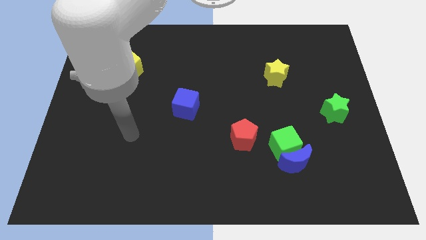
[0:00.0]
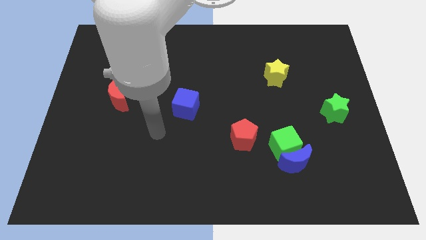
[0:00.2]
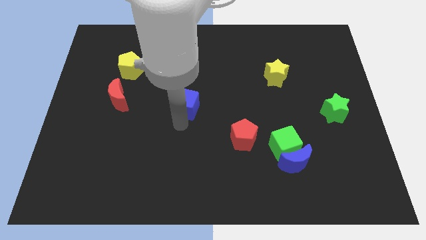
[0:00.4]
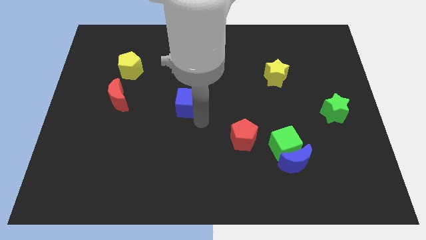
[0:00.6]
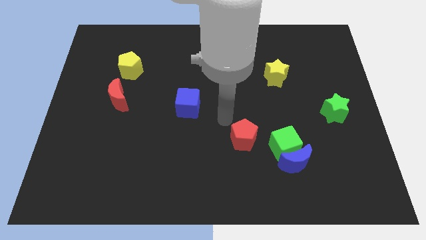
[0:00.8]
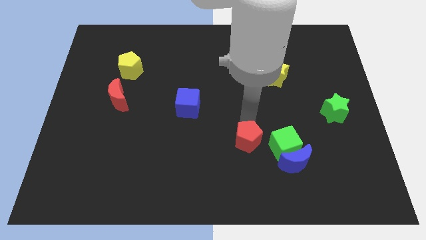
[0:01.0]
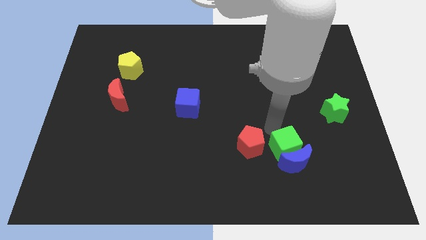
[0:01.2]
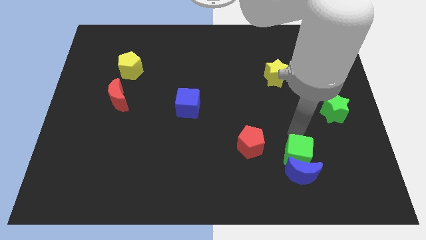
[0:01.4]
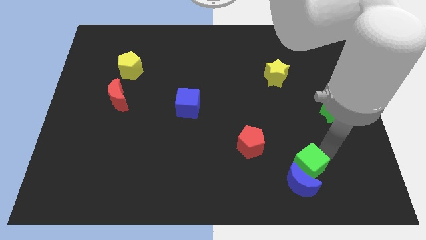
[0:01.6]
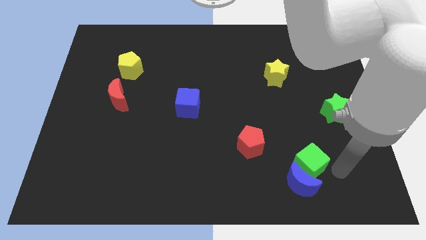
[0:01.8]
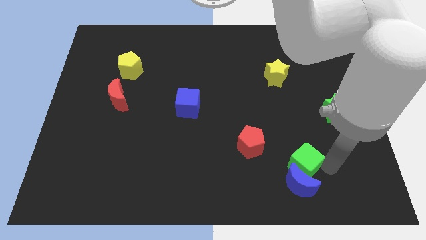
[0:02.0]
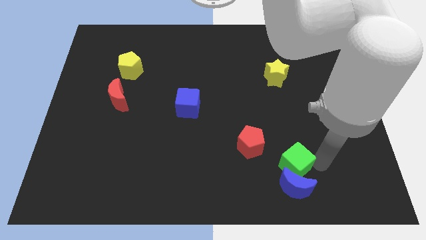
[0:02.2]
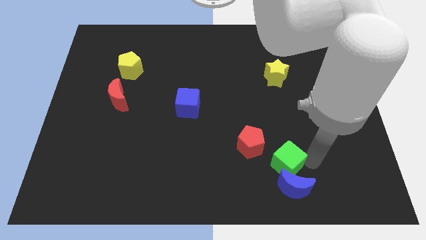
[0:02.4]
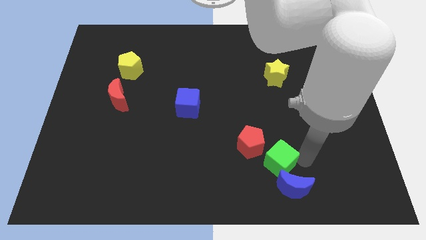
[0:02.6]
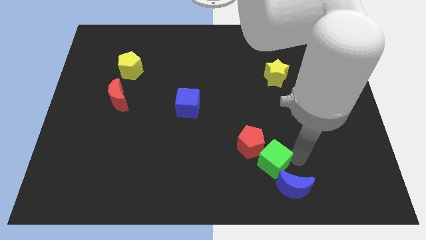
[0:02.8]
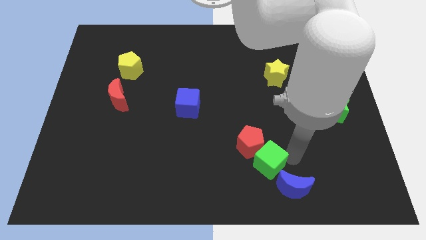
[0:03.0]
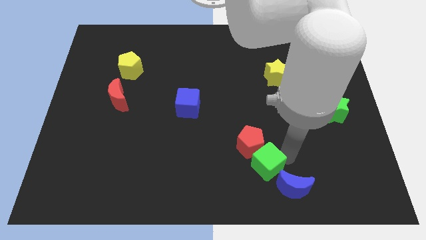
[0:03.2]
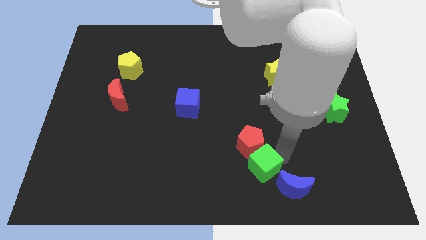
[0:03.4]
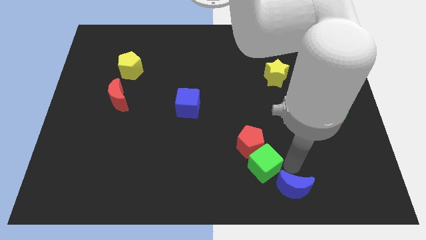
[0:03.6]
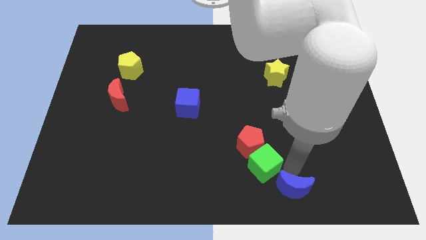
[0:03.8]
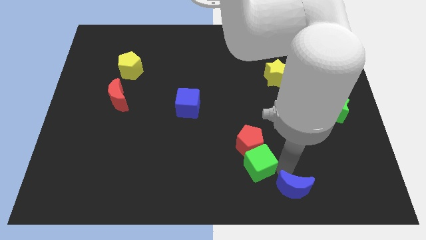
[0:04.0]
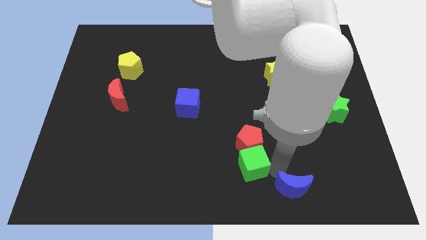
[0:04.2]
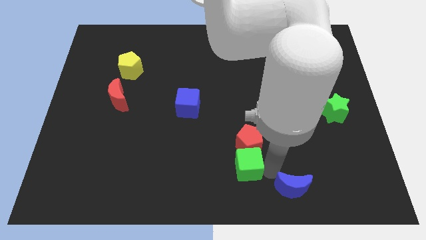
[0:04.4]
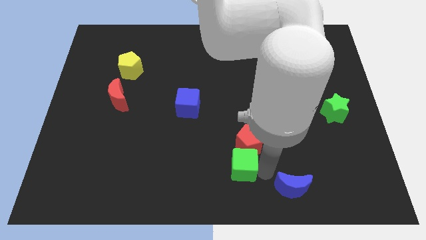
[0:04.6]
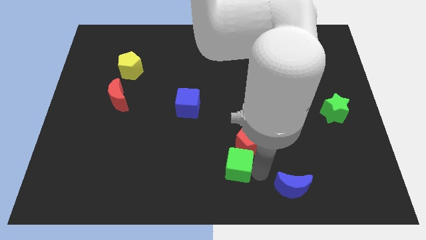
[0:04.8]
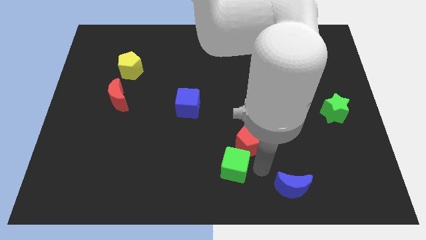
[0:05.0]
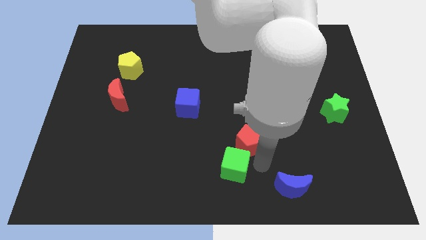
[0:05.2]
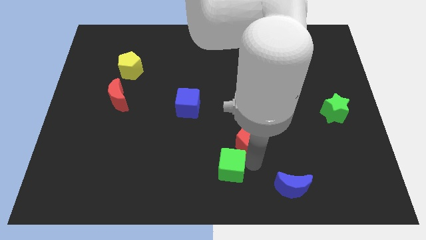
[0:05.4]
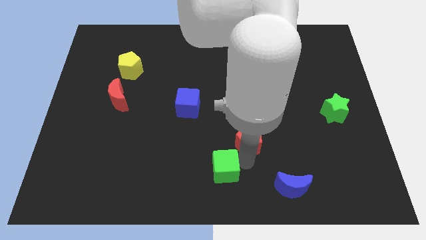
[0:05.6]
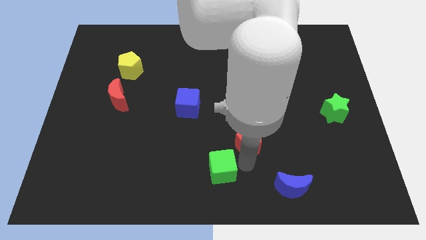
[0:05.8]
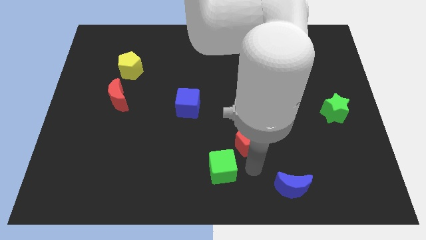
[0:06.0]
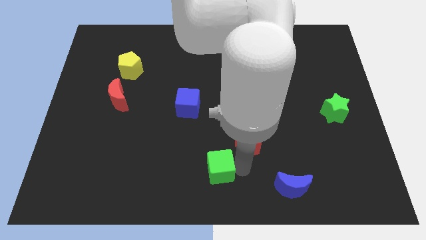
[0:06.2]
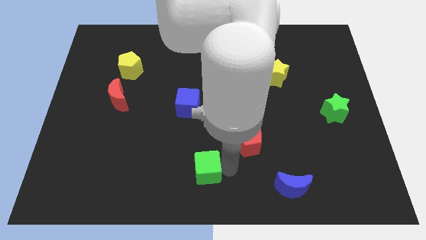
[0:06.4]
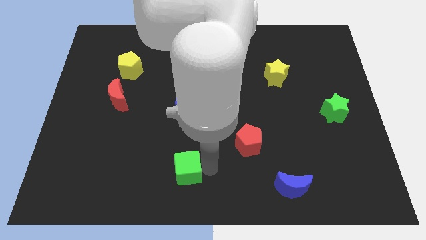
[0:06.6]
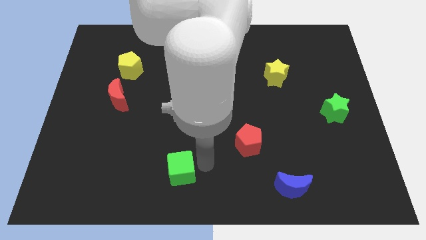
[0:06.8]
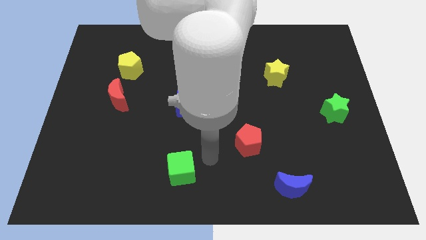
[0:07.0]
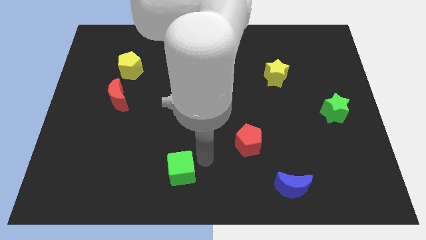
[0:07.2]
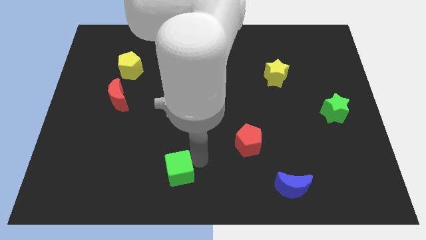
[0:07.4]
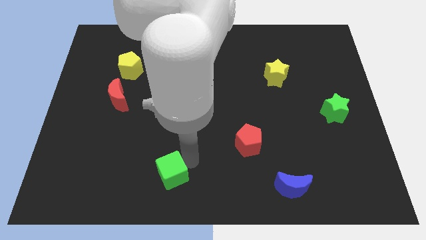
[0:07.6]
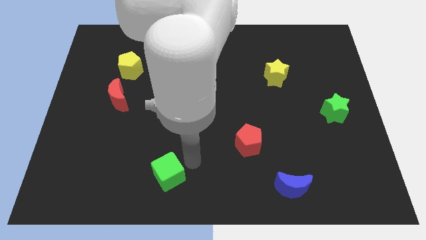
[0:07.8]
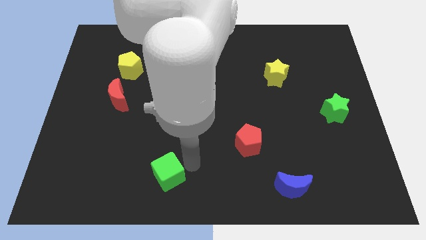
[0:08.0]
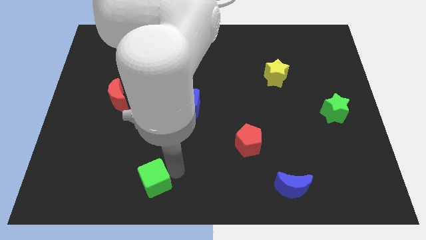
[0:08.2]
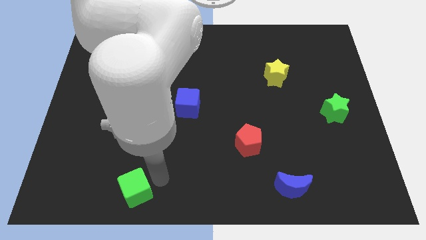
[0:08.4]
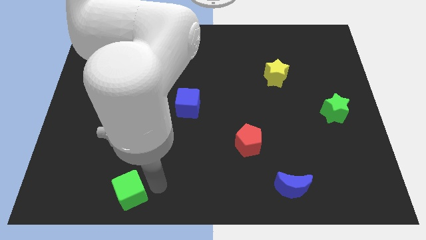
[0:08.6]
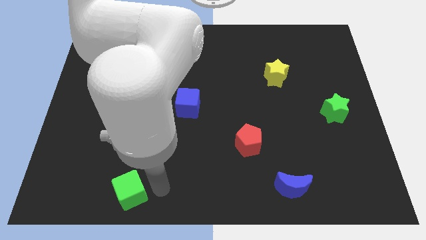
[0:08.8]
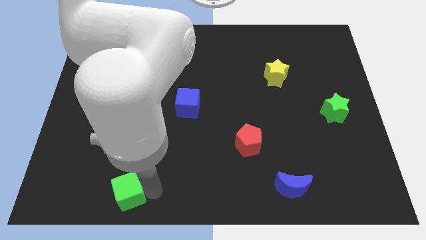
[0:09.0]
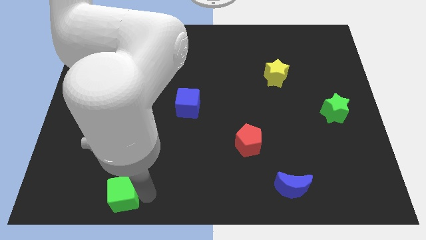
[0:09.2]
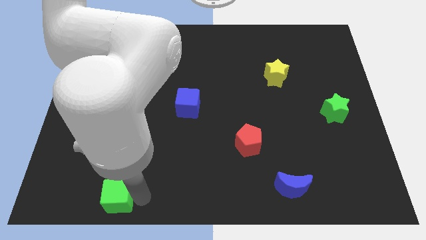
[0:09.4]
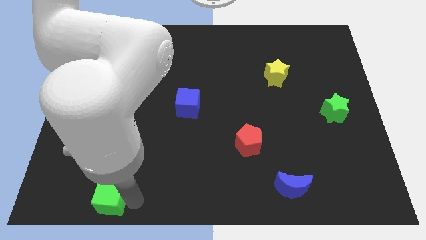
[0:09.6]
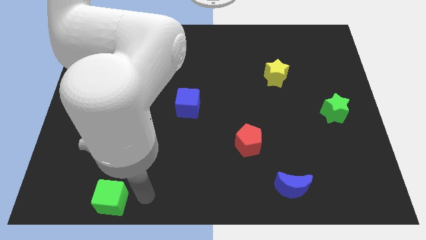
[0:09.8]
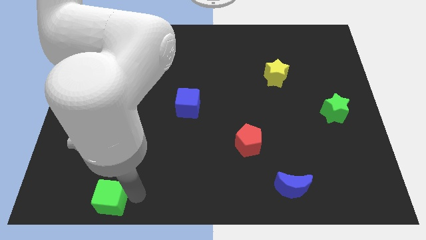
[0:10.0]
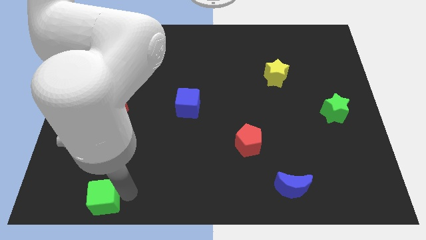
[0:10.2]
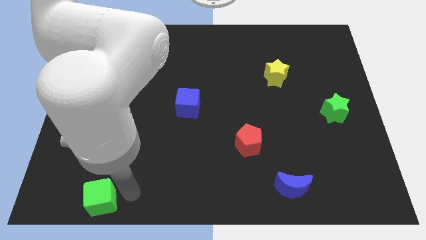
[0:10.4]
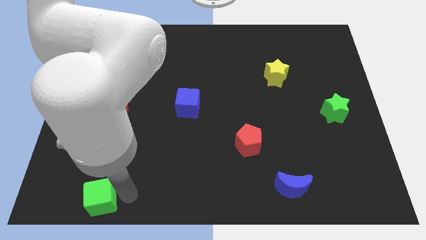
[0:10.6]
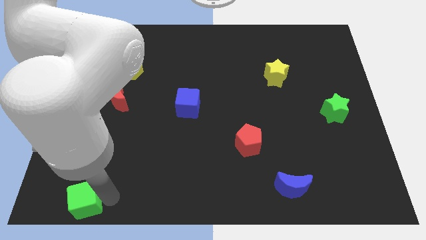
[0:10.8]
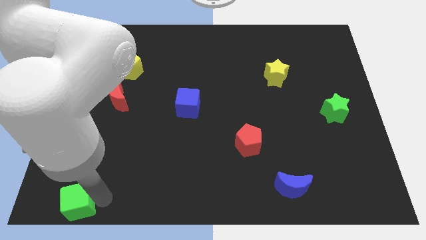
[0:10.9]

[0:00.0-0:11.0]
slide the green cube to the bottom left

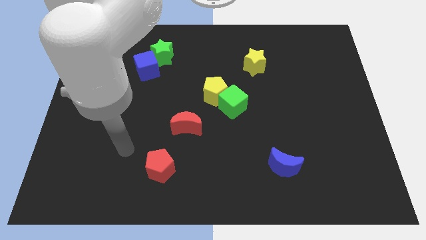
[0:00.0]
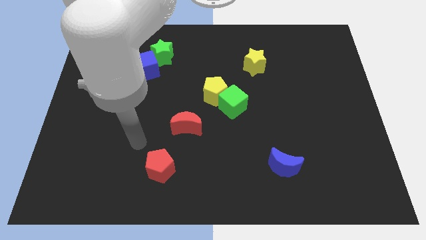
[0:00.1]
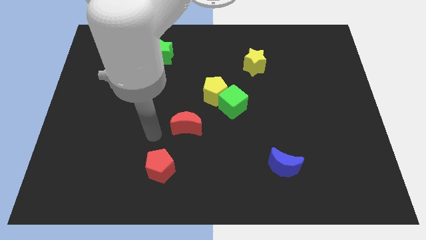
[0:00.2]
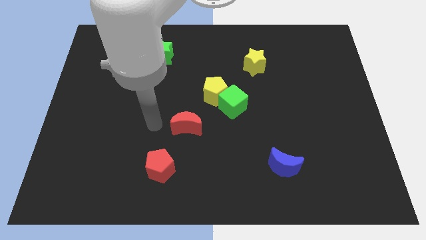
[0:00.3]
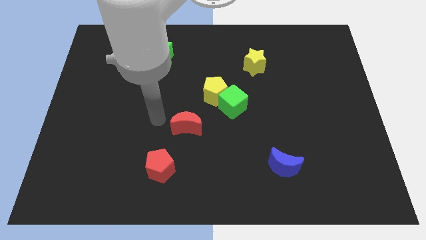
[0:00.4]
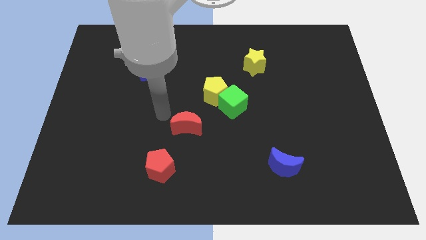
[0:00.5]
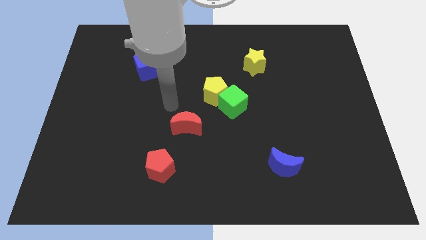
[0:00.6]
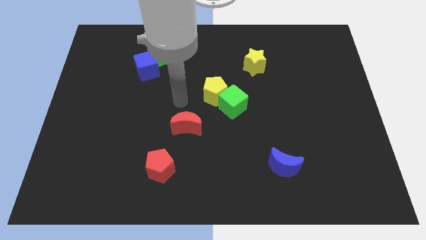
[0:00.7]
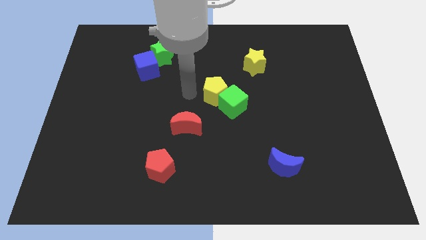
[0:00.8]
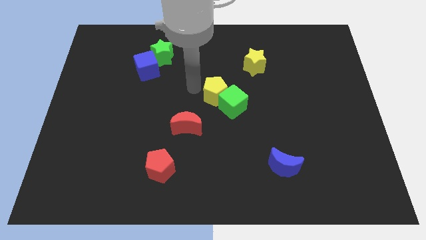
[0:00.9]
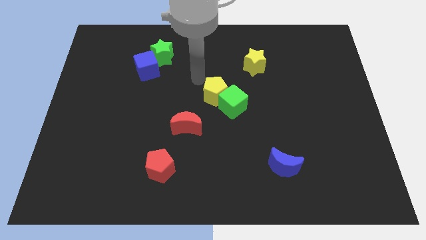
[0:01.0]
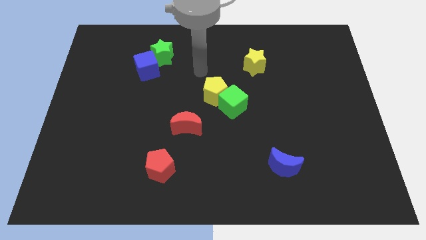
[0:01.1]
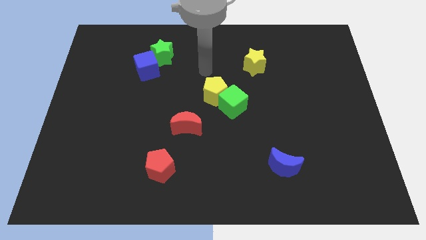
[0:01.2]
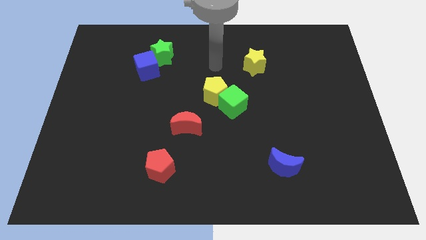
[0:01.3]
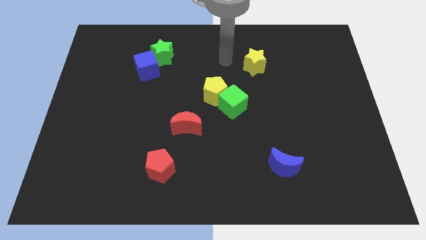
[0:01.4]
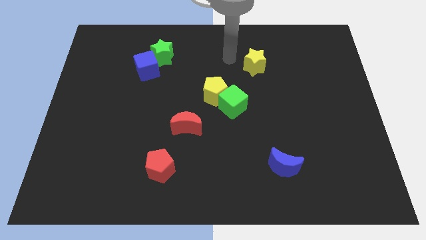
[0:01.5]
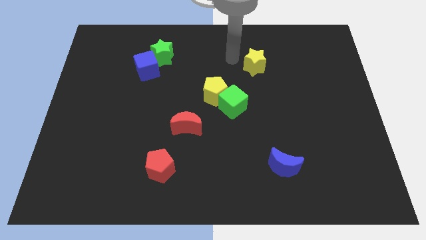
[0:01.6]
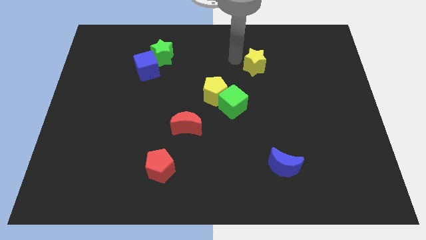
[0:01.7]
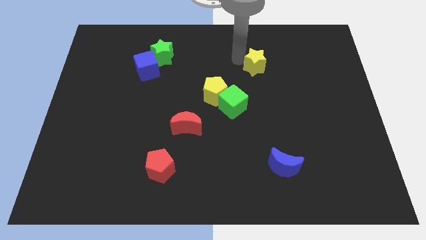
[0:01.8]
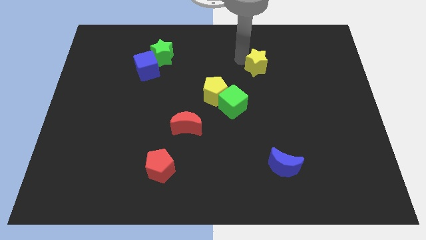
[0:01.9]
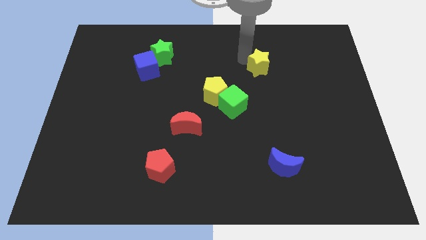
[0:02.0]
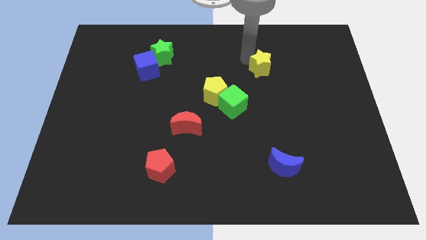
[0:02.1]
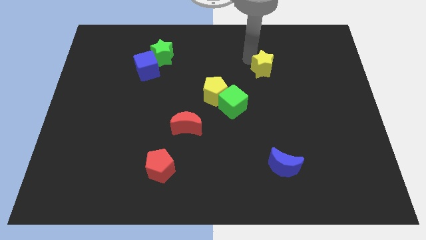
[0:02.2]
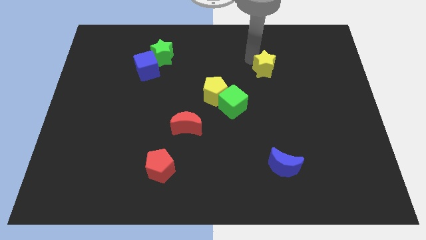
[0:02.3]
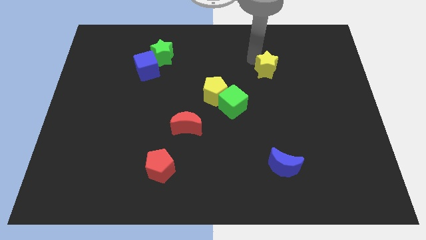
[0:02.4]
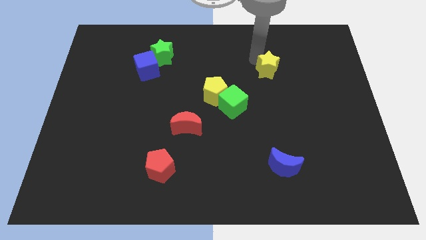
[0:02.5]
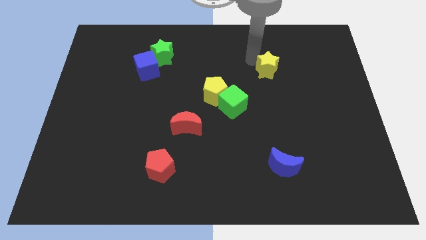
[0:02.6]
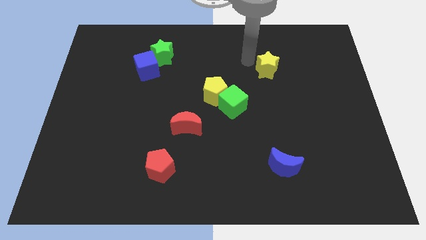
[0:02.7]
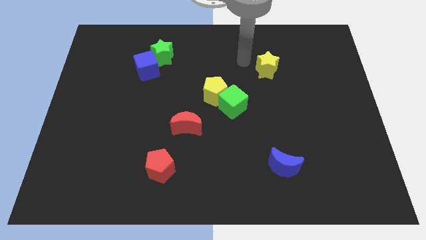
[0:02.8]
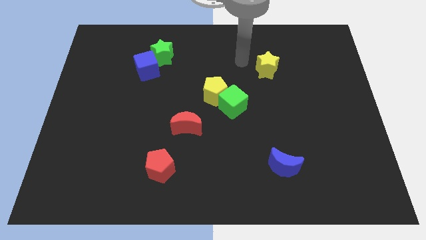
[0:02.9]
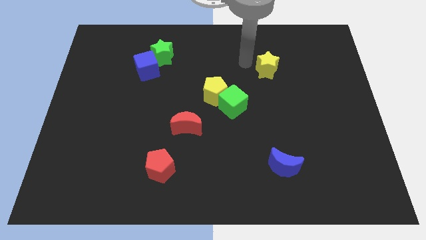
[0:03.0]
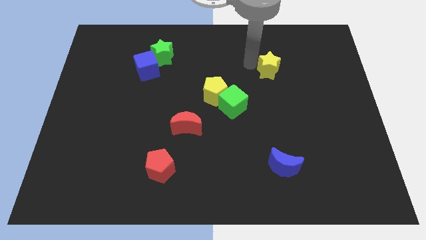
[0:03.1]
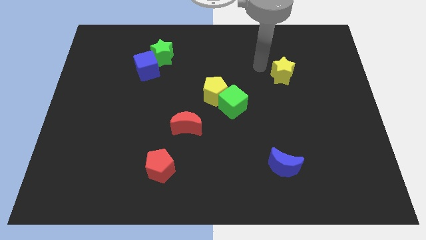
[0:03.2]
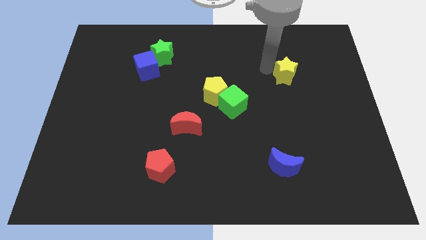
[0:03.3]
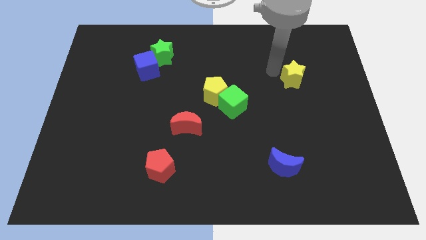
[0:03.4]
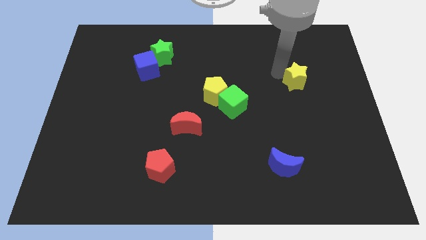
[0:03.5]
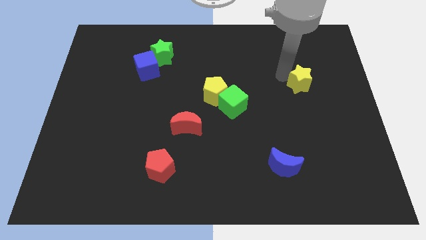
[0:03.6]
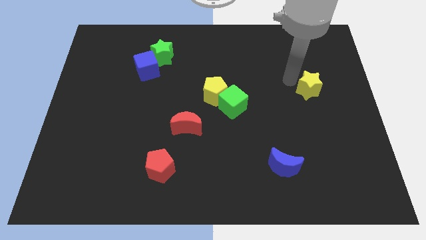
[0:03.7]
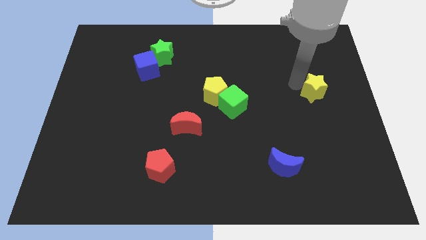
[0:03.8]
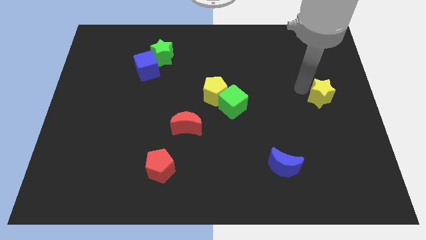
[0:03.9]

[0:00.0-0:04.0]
put the yellow star to the right side
